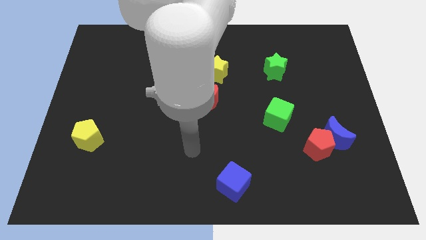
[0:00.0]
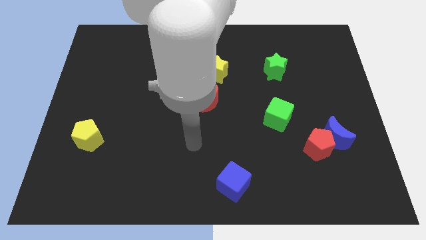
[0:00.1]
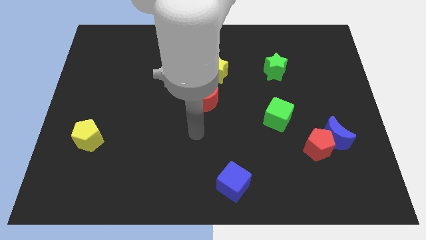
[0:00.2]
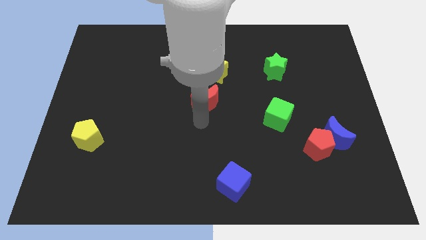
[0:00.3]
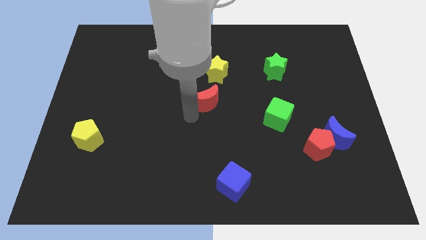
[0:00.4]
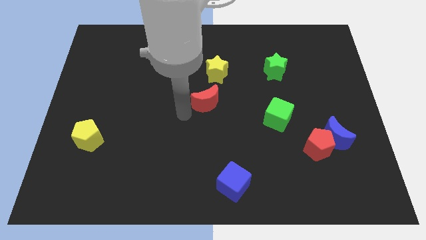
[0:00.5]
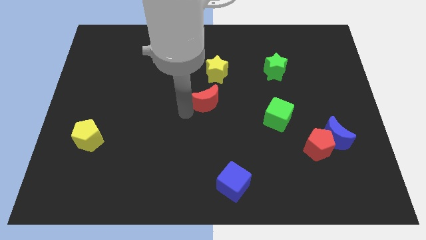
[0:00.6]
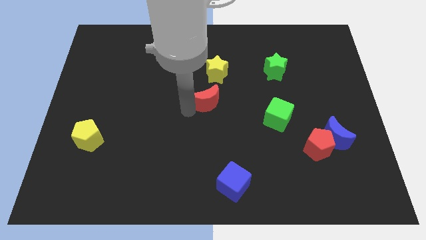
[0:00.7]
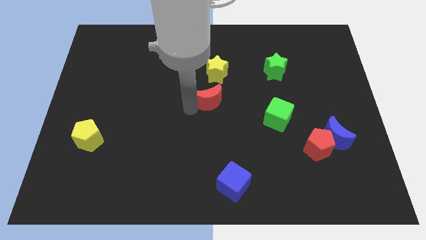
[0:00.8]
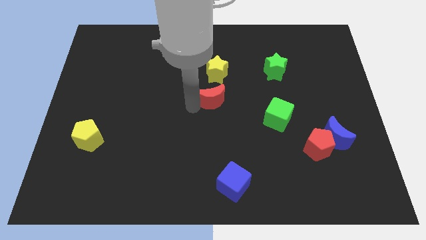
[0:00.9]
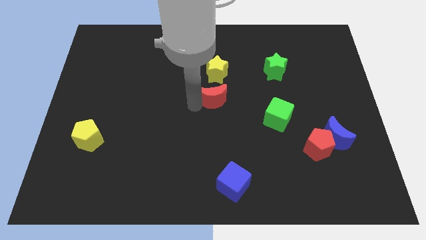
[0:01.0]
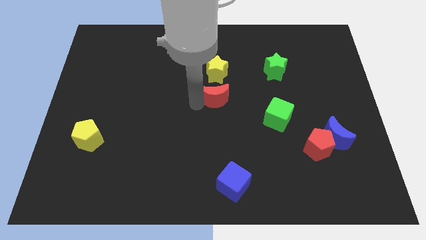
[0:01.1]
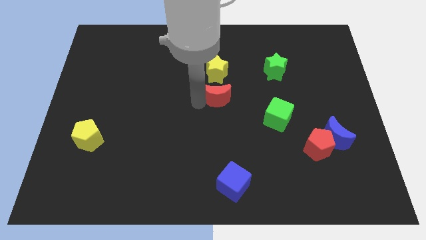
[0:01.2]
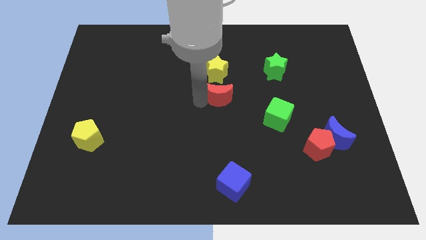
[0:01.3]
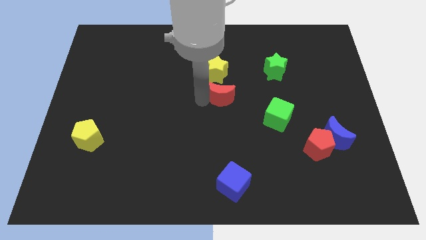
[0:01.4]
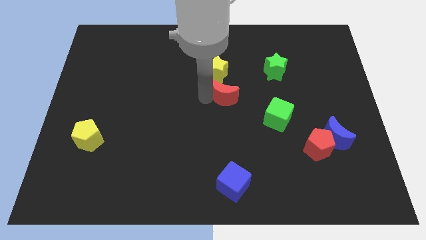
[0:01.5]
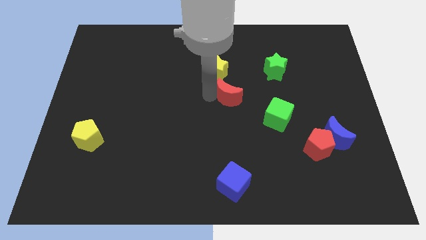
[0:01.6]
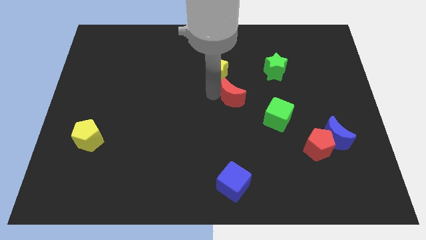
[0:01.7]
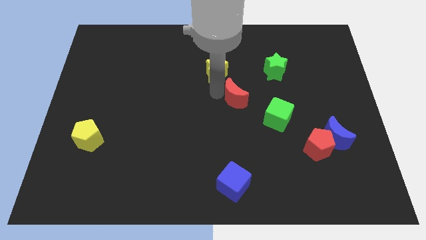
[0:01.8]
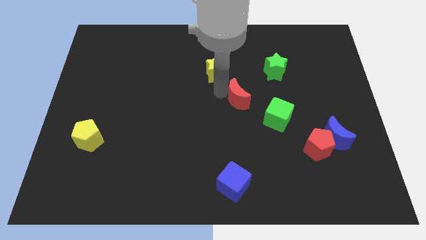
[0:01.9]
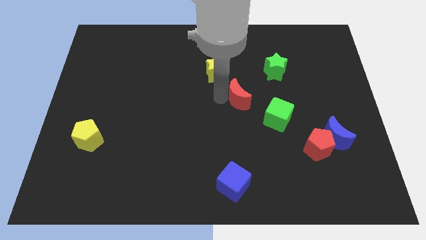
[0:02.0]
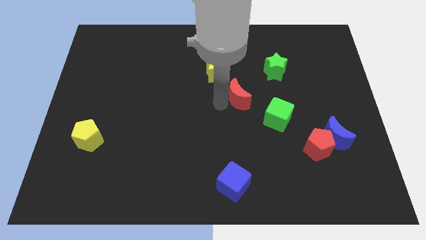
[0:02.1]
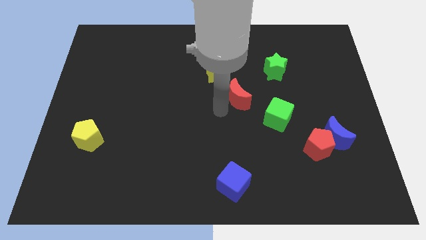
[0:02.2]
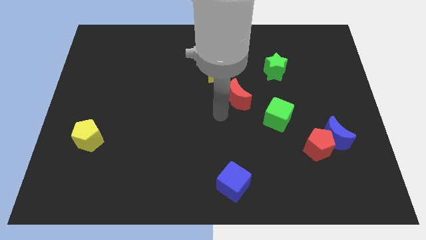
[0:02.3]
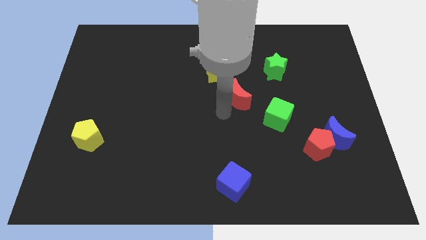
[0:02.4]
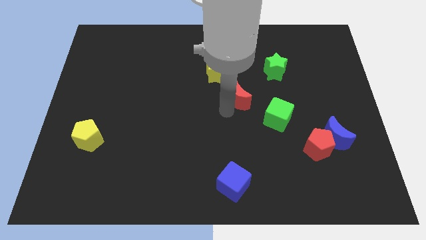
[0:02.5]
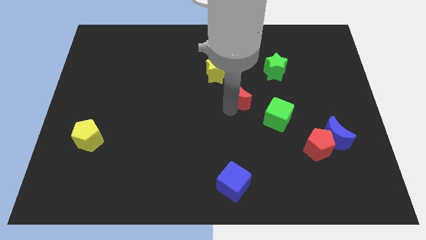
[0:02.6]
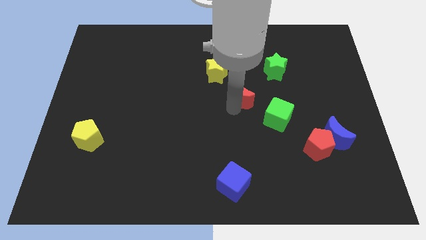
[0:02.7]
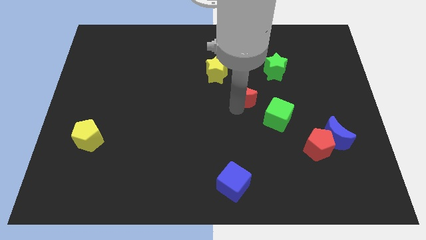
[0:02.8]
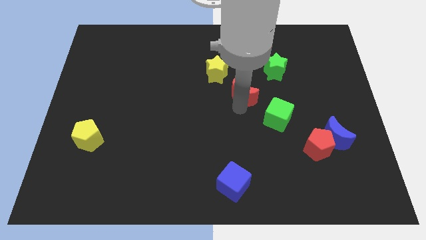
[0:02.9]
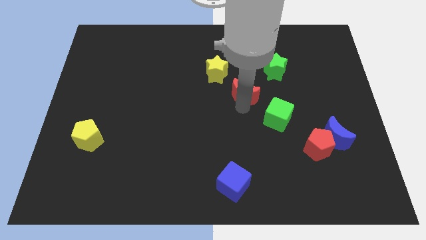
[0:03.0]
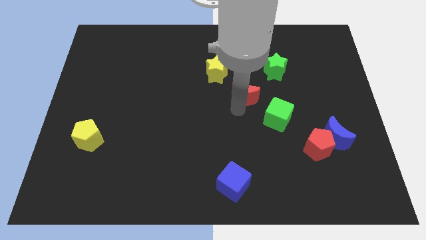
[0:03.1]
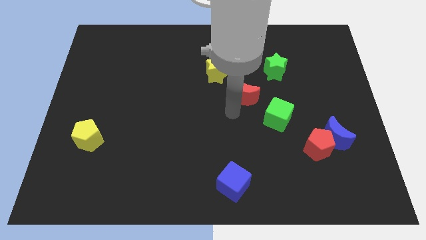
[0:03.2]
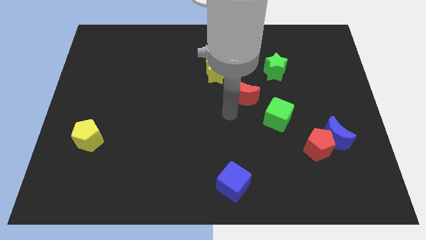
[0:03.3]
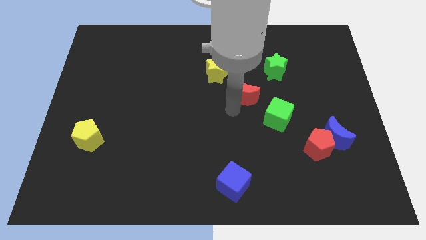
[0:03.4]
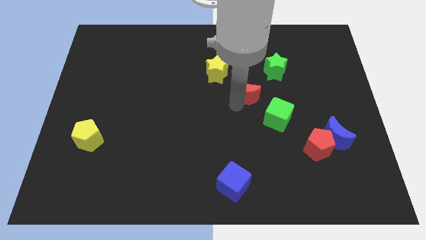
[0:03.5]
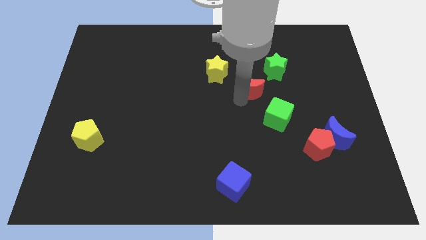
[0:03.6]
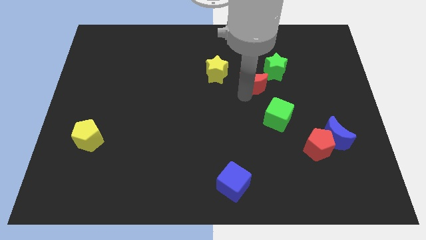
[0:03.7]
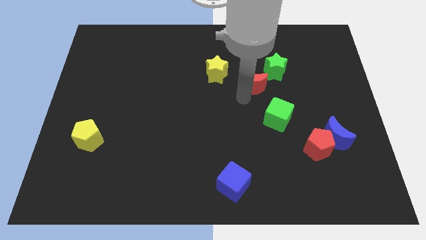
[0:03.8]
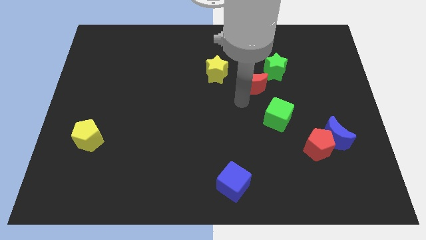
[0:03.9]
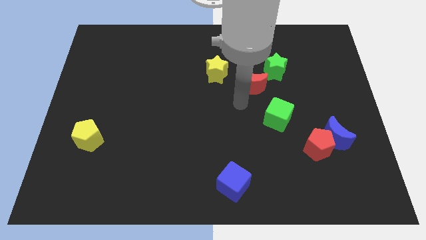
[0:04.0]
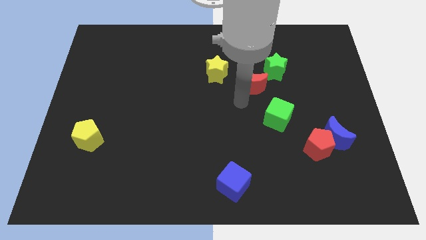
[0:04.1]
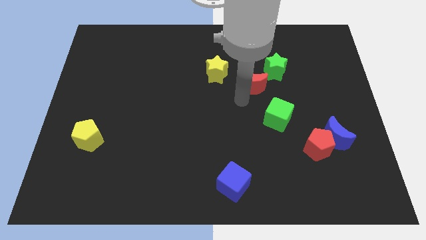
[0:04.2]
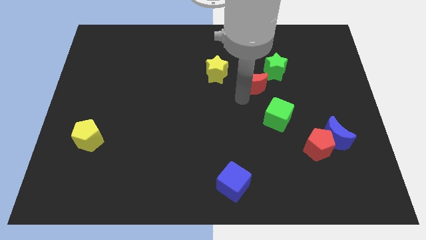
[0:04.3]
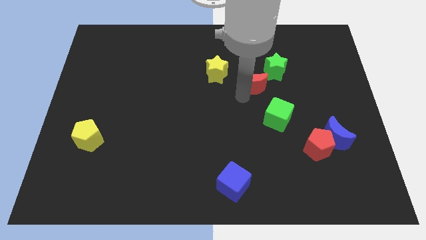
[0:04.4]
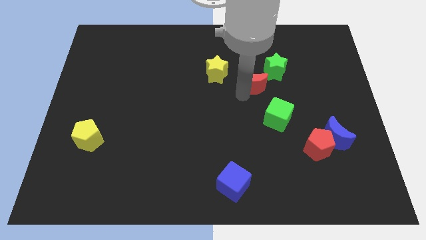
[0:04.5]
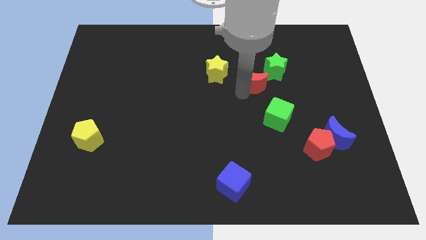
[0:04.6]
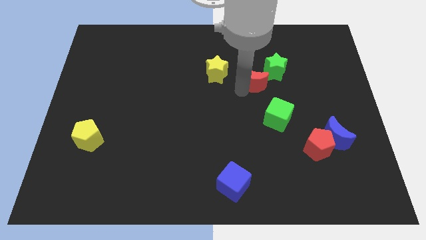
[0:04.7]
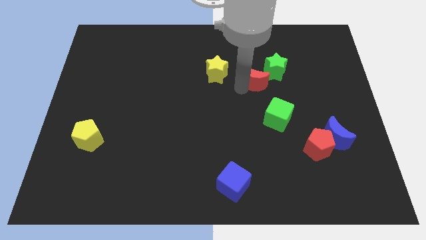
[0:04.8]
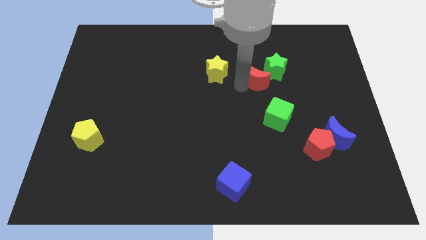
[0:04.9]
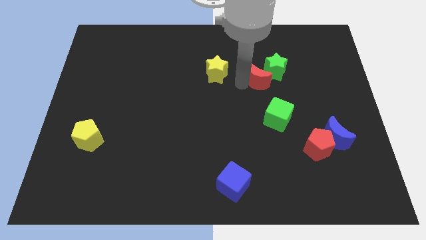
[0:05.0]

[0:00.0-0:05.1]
push the red moon next to the green star

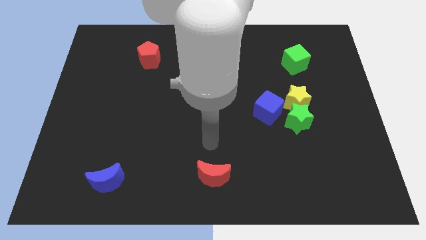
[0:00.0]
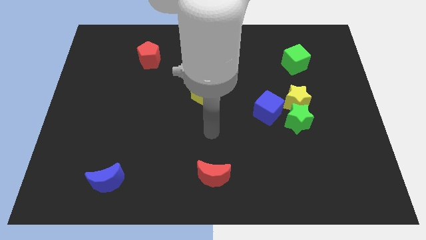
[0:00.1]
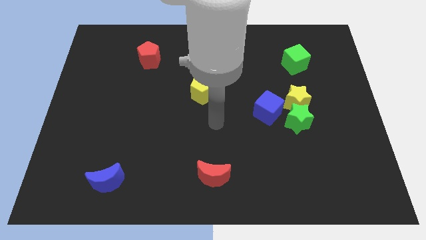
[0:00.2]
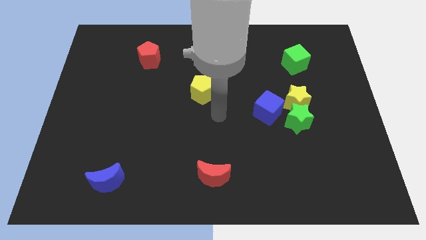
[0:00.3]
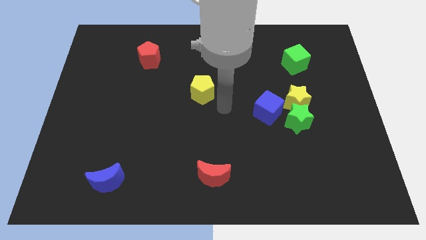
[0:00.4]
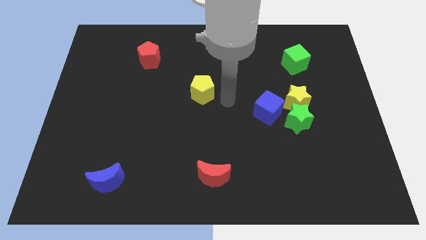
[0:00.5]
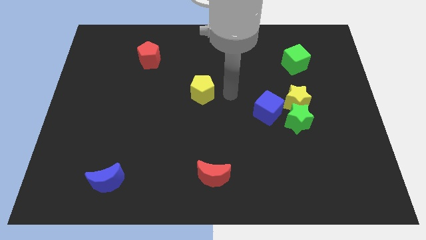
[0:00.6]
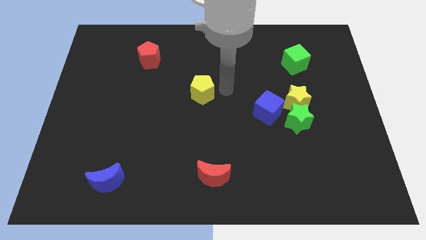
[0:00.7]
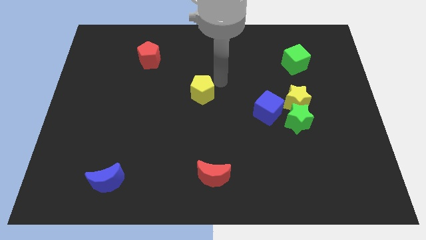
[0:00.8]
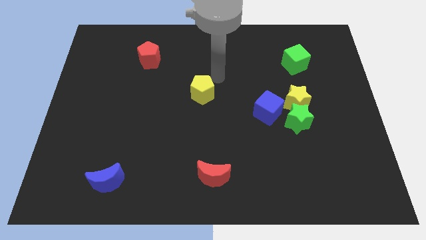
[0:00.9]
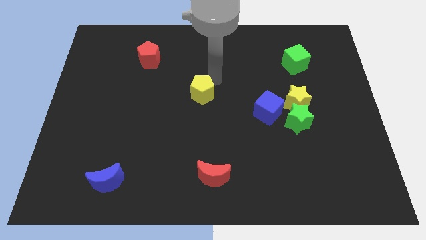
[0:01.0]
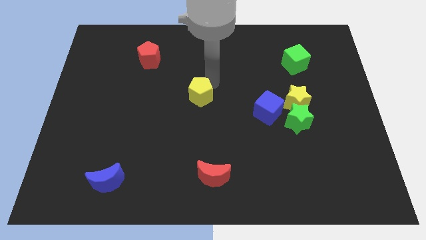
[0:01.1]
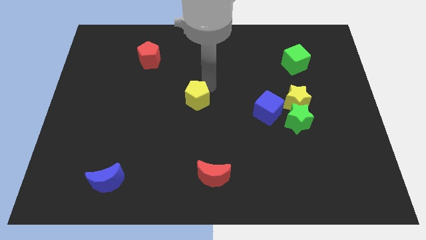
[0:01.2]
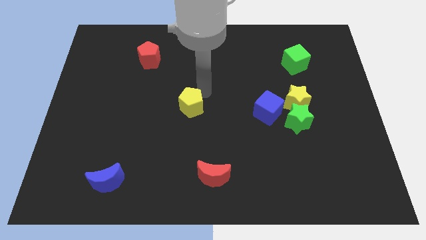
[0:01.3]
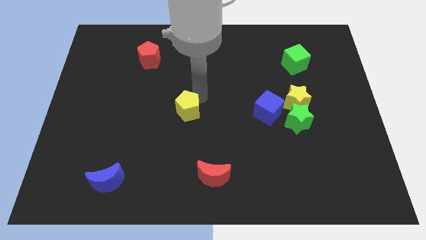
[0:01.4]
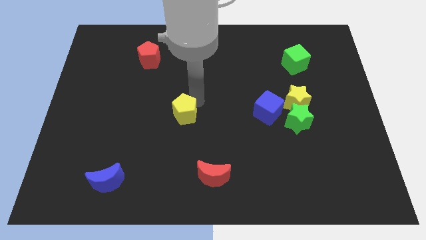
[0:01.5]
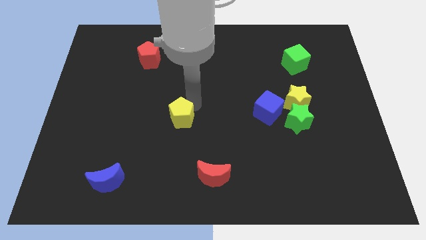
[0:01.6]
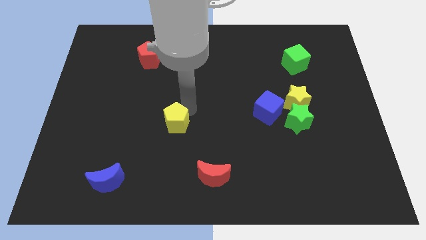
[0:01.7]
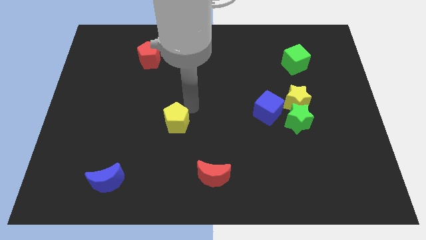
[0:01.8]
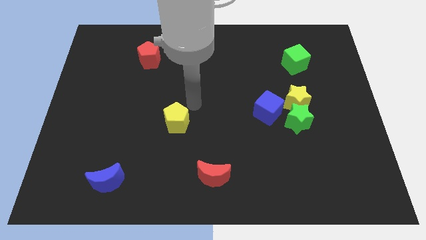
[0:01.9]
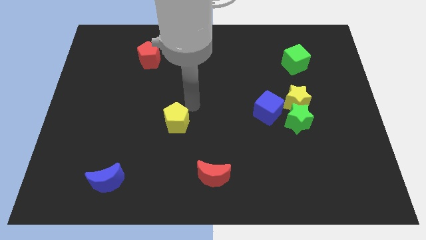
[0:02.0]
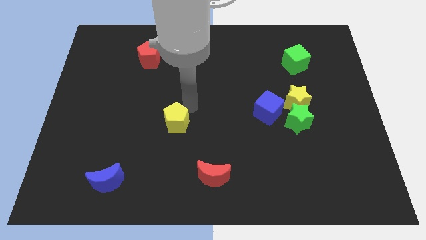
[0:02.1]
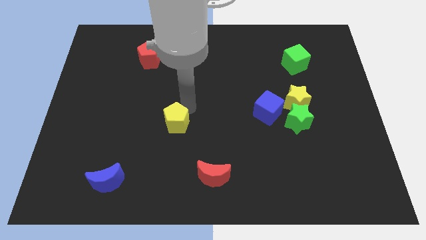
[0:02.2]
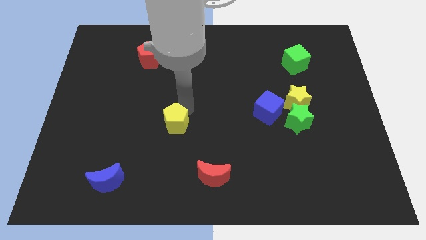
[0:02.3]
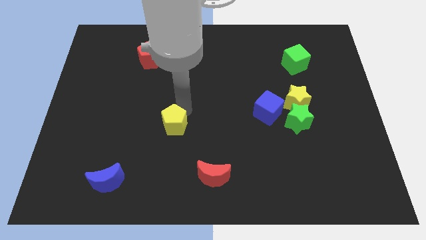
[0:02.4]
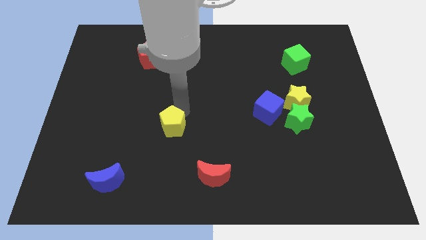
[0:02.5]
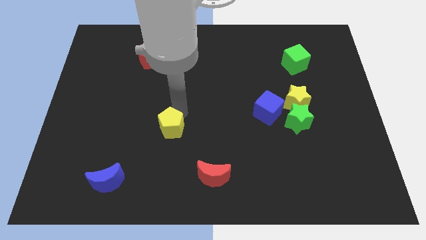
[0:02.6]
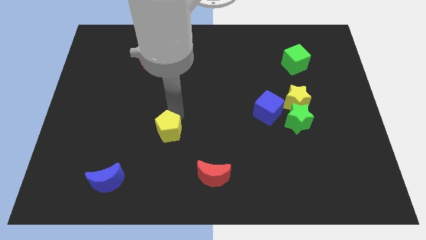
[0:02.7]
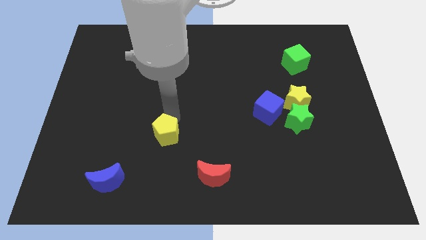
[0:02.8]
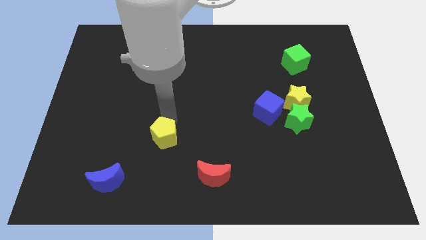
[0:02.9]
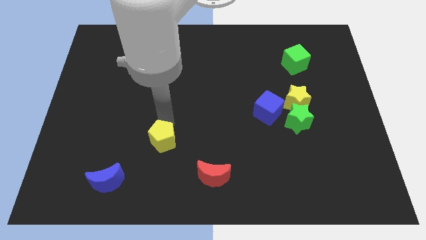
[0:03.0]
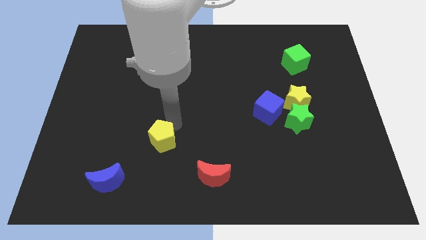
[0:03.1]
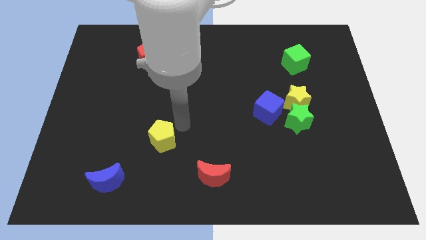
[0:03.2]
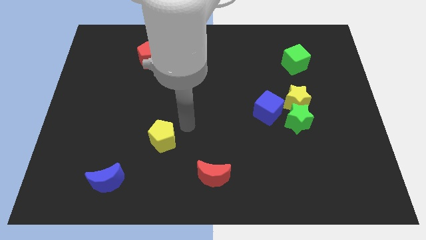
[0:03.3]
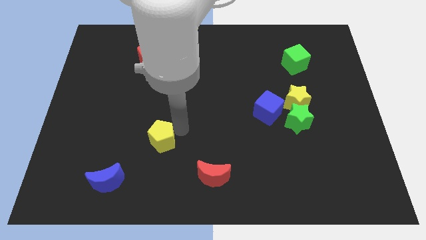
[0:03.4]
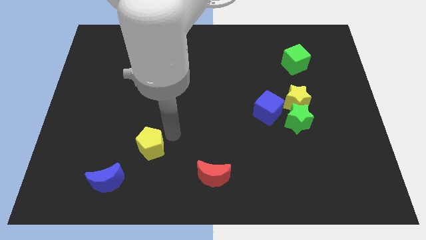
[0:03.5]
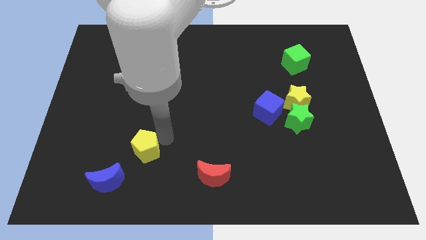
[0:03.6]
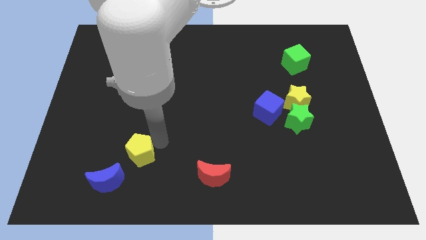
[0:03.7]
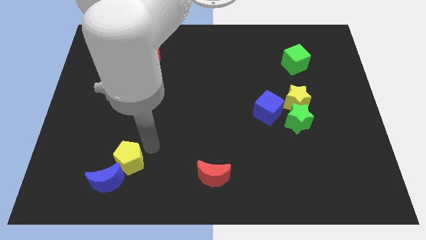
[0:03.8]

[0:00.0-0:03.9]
put the yellow pentagon to the blue moon
